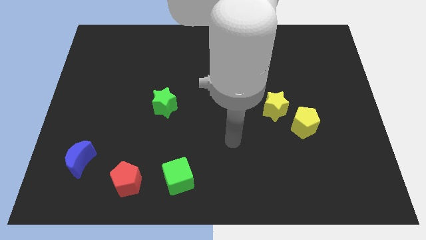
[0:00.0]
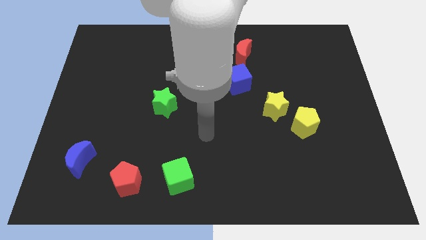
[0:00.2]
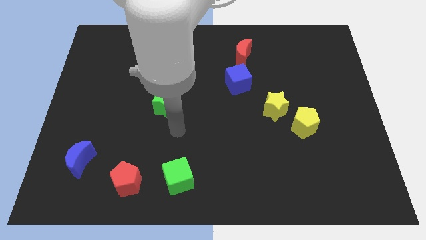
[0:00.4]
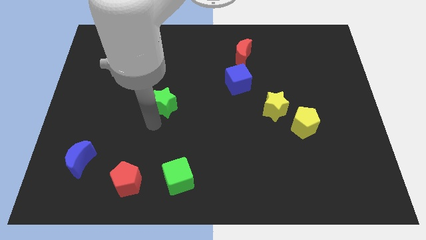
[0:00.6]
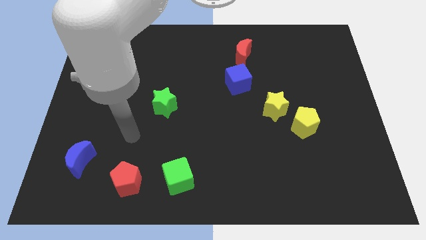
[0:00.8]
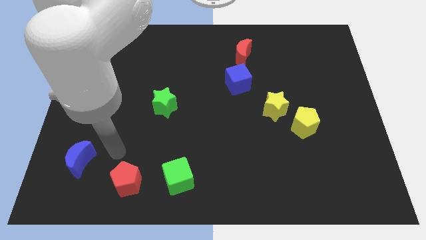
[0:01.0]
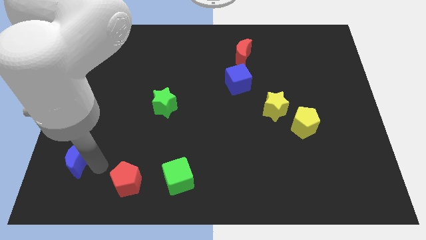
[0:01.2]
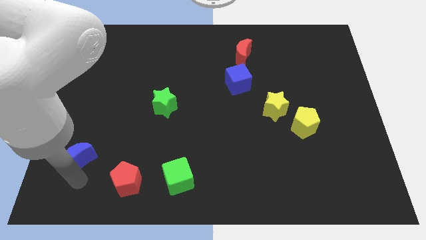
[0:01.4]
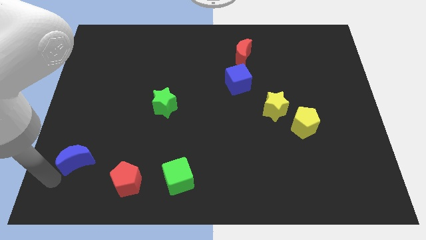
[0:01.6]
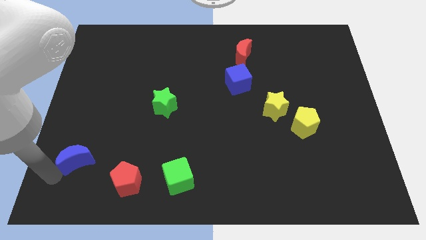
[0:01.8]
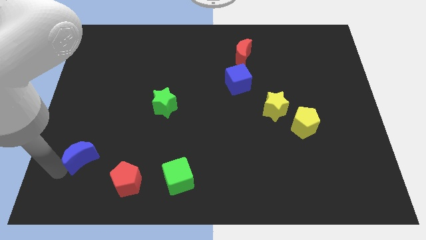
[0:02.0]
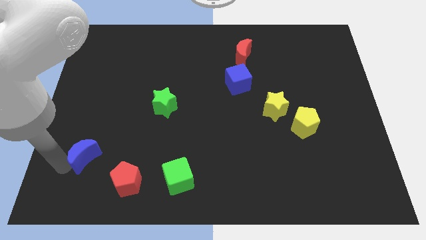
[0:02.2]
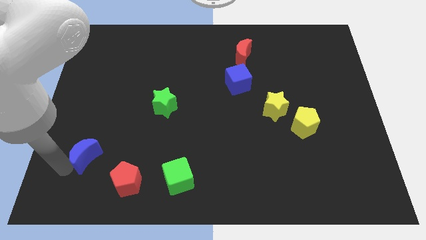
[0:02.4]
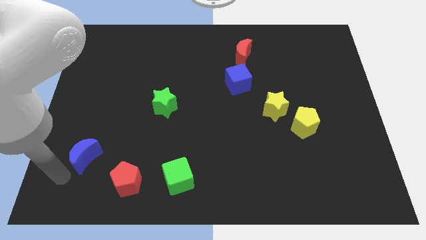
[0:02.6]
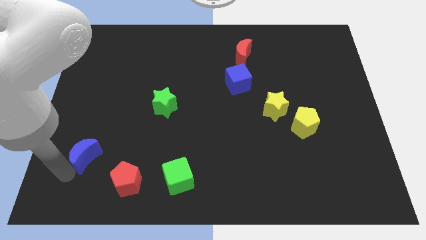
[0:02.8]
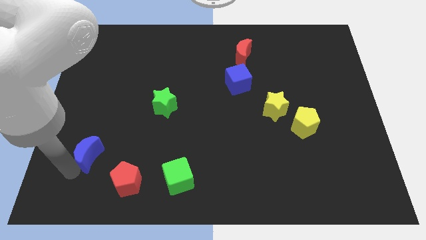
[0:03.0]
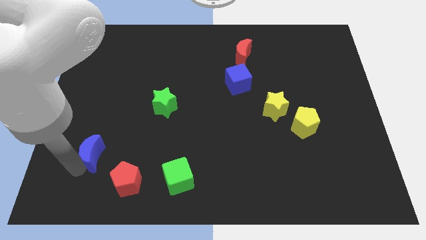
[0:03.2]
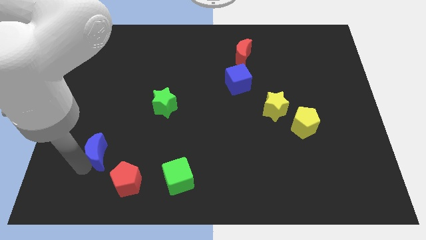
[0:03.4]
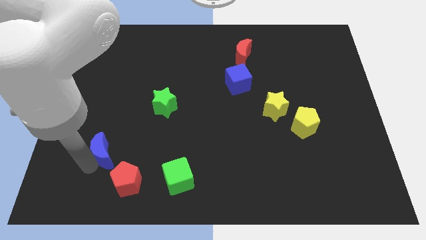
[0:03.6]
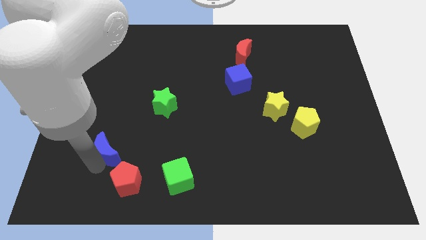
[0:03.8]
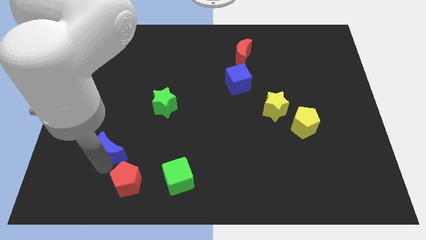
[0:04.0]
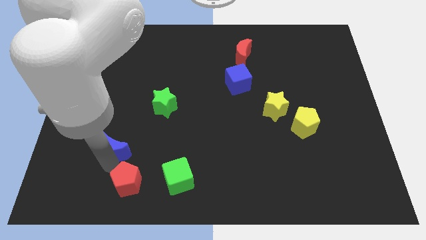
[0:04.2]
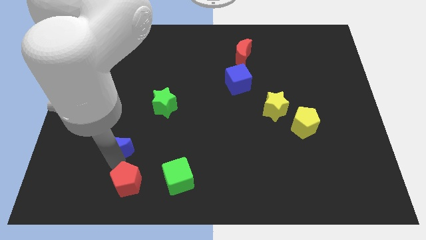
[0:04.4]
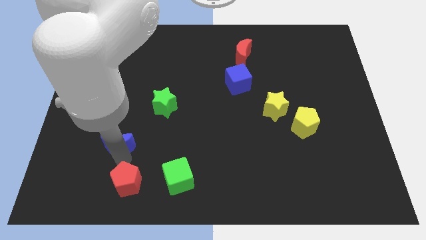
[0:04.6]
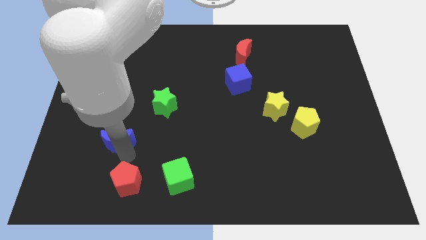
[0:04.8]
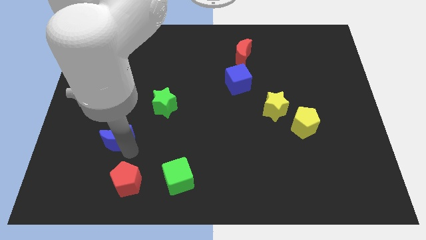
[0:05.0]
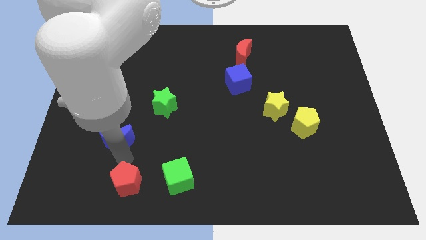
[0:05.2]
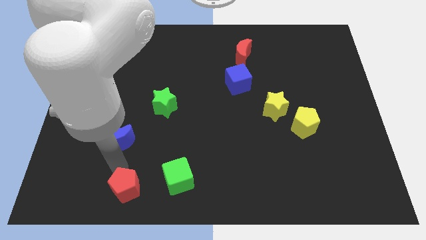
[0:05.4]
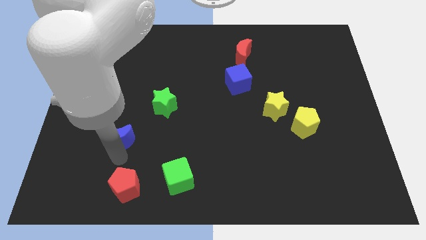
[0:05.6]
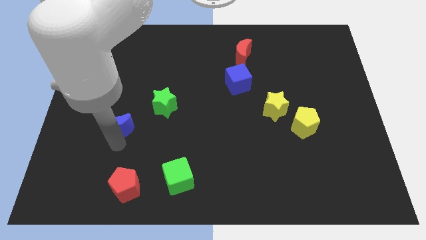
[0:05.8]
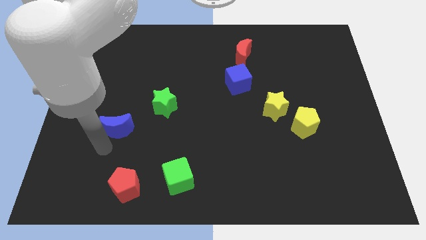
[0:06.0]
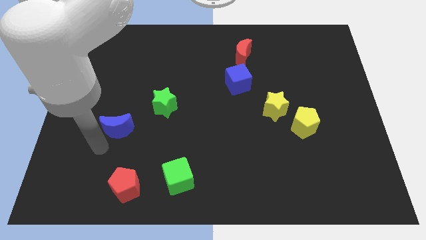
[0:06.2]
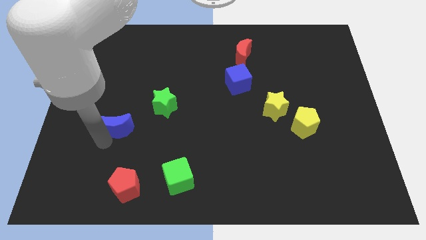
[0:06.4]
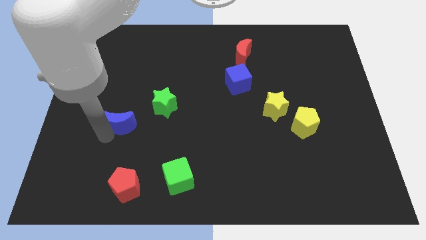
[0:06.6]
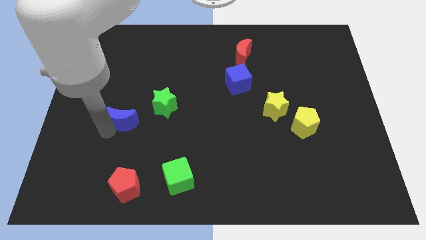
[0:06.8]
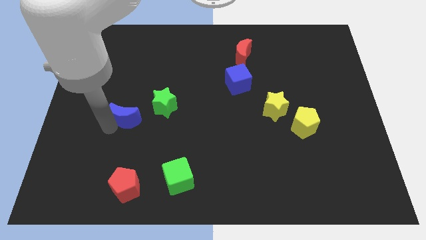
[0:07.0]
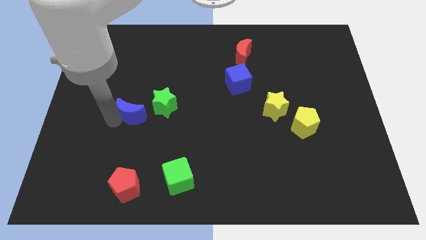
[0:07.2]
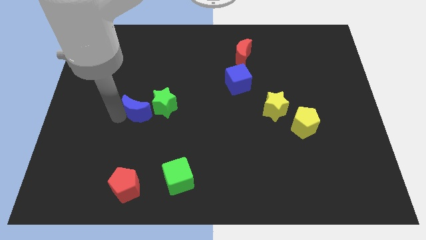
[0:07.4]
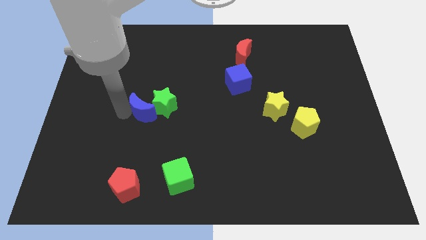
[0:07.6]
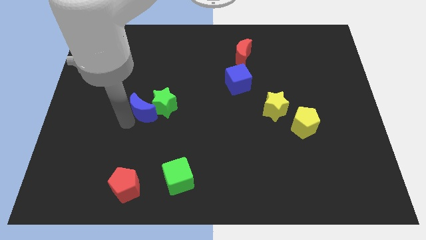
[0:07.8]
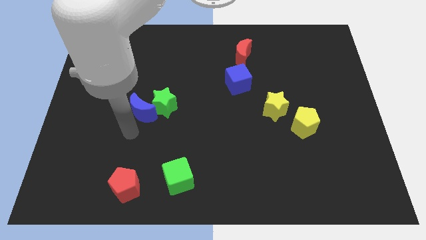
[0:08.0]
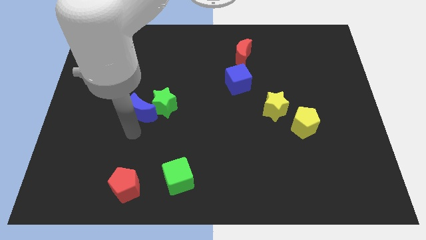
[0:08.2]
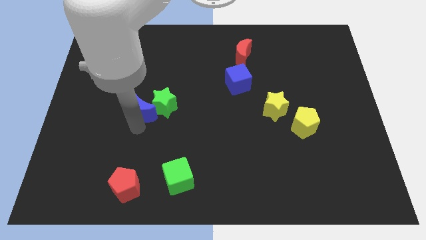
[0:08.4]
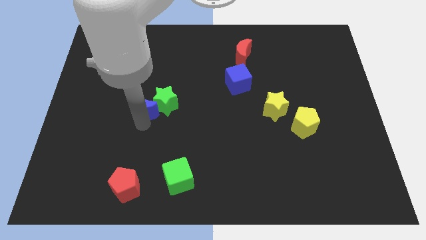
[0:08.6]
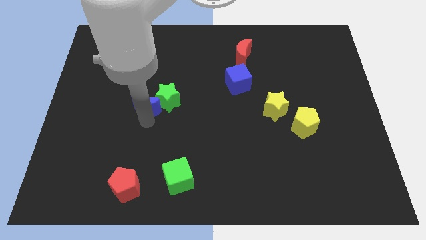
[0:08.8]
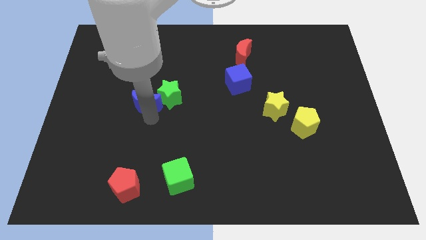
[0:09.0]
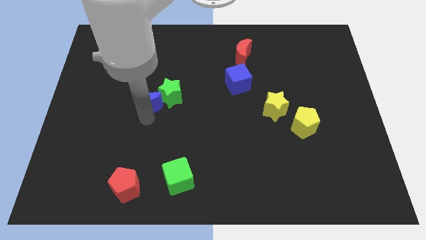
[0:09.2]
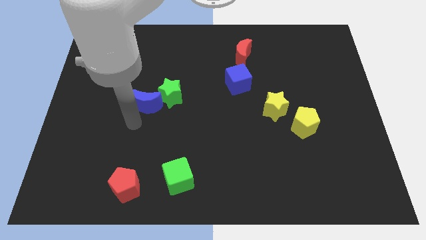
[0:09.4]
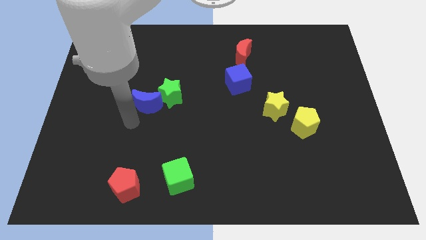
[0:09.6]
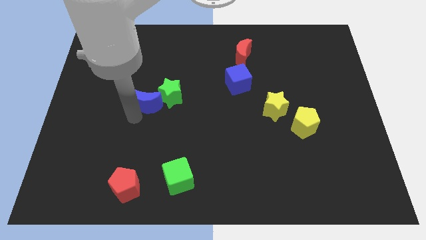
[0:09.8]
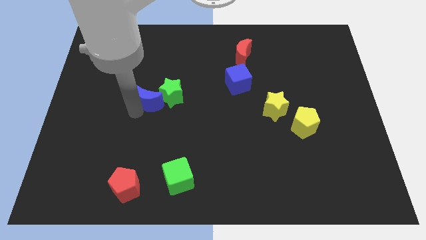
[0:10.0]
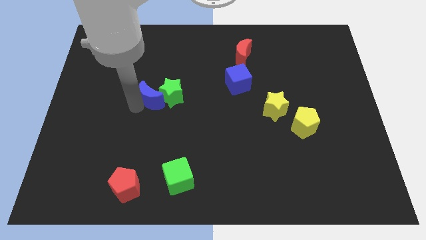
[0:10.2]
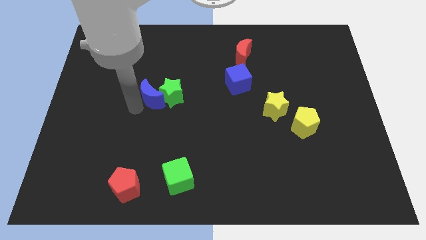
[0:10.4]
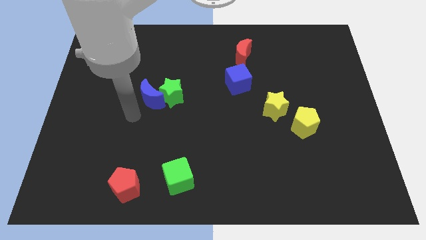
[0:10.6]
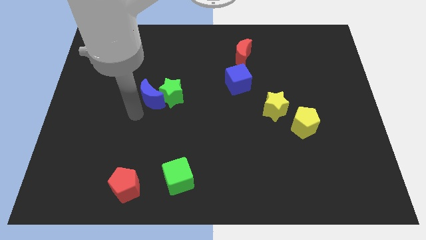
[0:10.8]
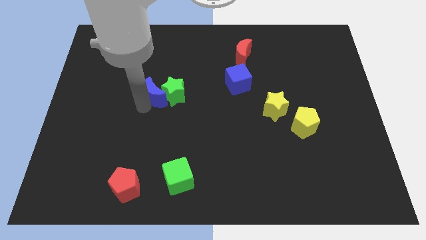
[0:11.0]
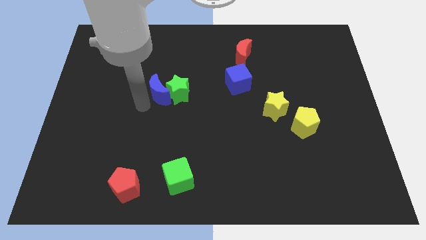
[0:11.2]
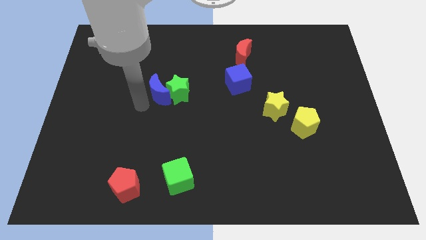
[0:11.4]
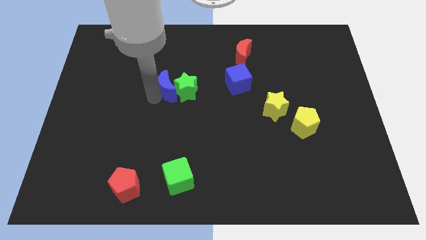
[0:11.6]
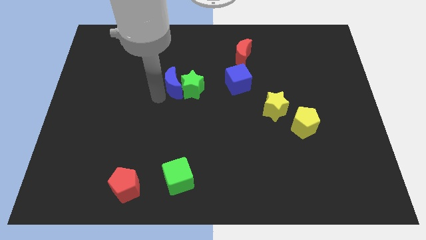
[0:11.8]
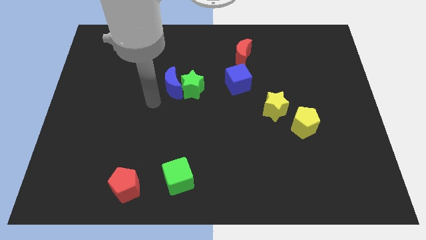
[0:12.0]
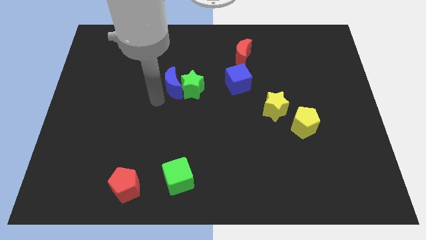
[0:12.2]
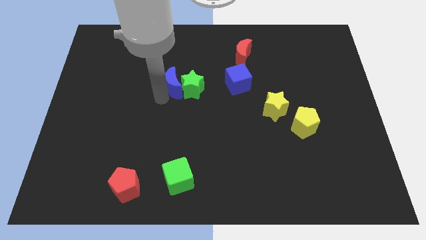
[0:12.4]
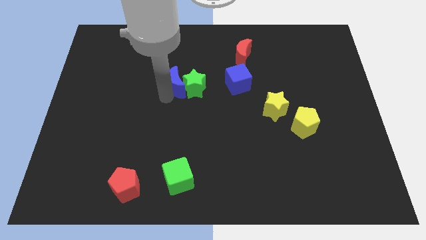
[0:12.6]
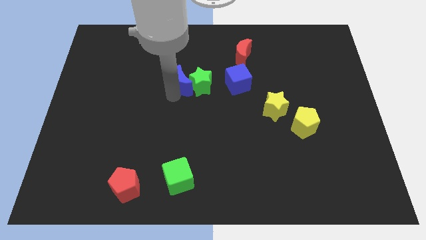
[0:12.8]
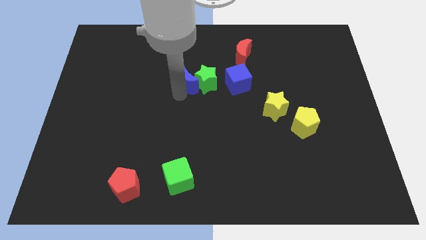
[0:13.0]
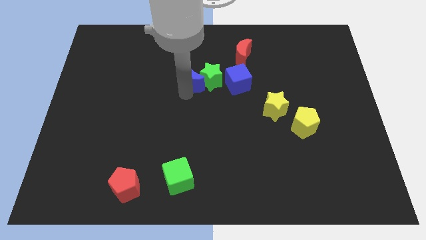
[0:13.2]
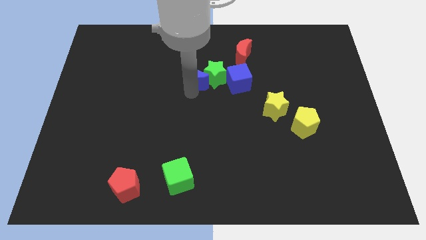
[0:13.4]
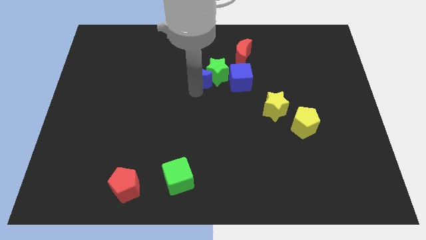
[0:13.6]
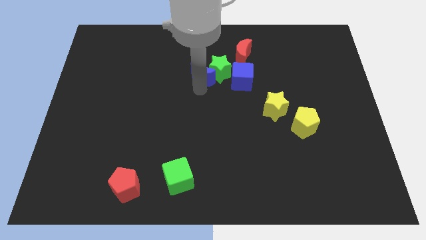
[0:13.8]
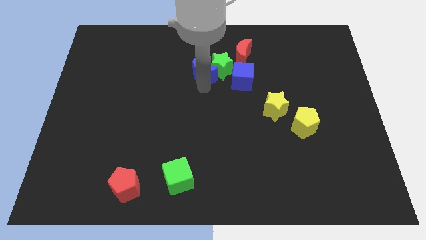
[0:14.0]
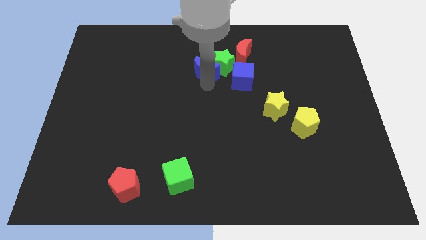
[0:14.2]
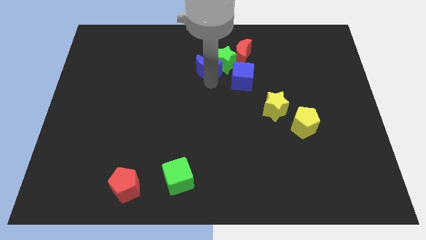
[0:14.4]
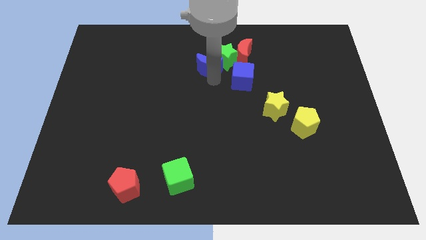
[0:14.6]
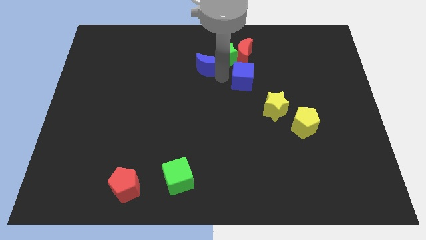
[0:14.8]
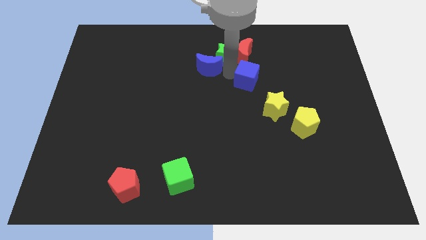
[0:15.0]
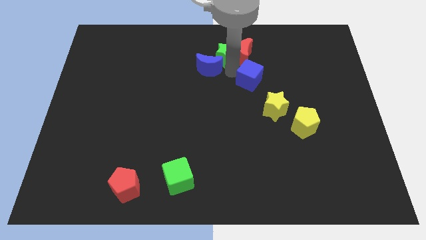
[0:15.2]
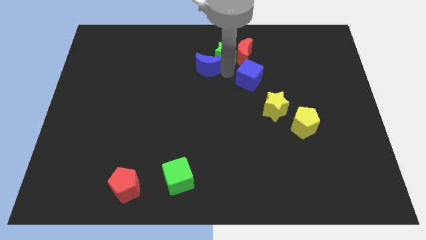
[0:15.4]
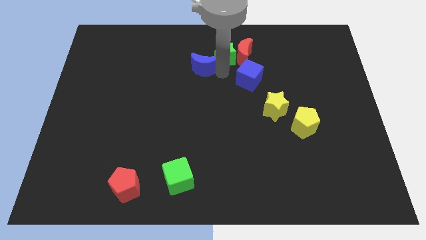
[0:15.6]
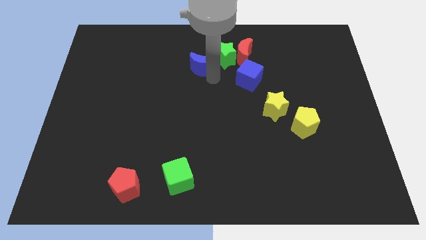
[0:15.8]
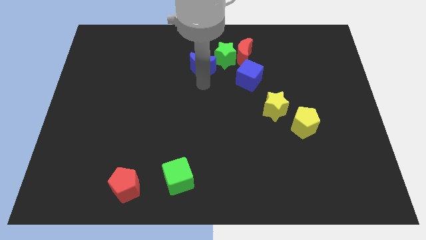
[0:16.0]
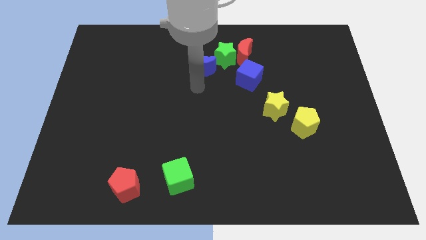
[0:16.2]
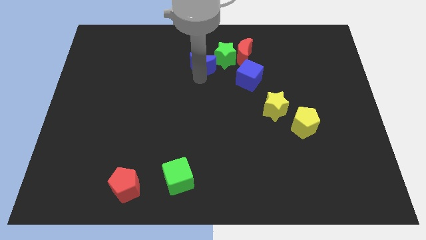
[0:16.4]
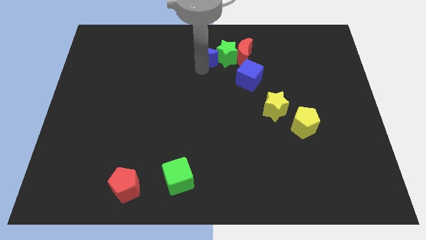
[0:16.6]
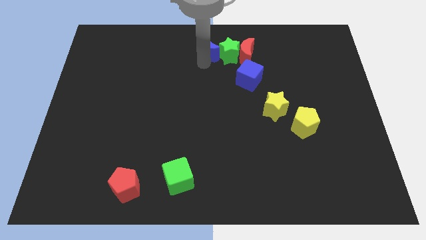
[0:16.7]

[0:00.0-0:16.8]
push the blue moon to the top side

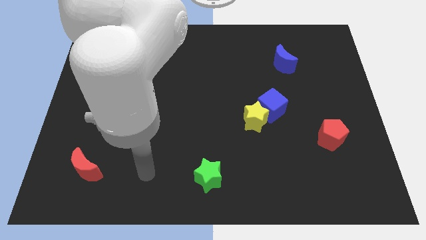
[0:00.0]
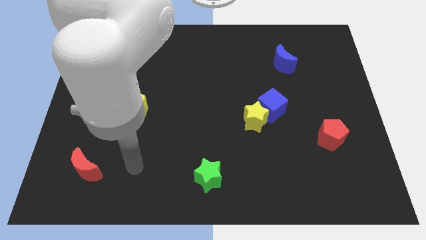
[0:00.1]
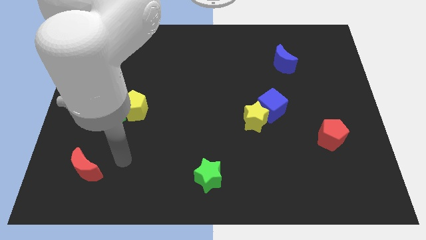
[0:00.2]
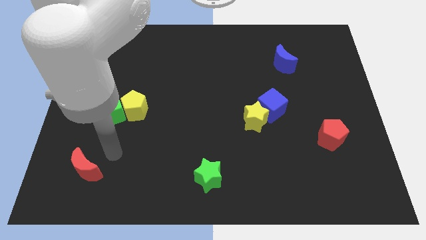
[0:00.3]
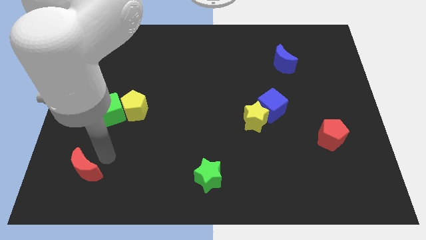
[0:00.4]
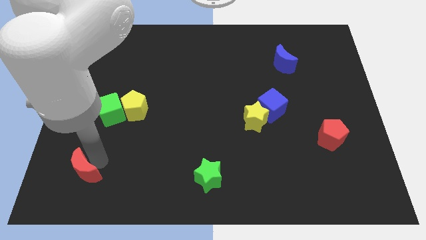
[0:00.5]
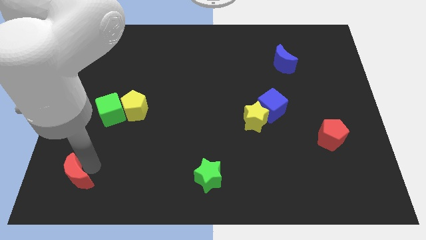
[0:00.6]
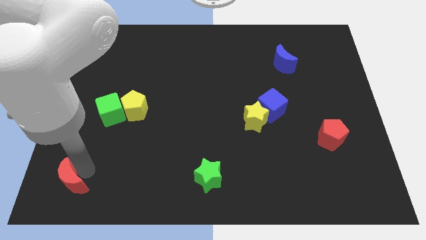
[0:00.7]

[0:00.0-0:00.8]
push the red moon to the bottom left
